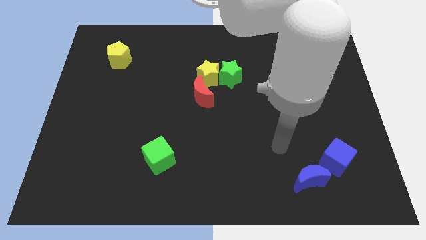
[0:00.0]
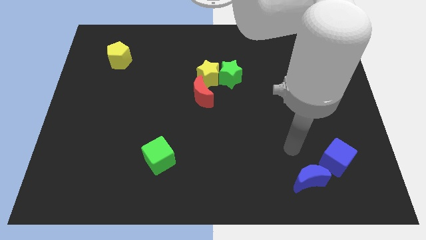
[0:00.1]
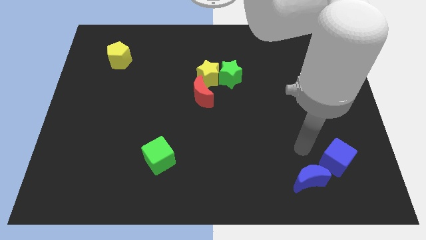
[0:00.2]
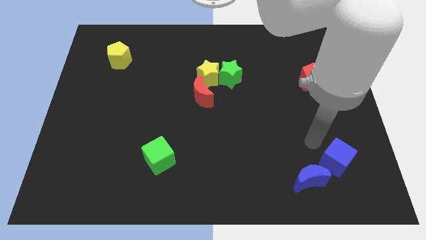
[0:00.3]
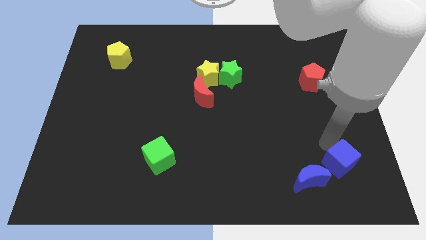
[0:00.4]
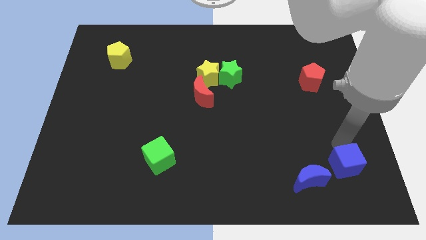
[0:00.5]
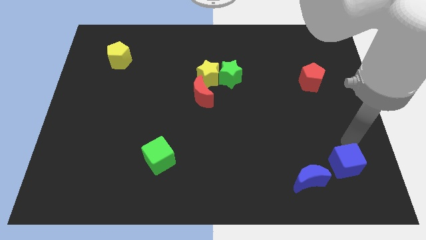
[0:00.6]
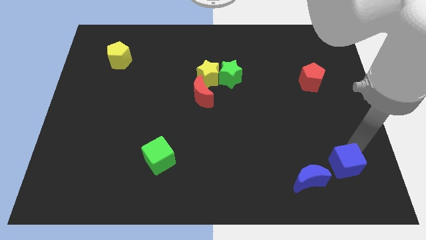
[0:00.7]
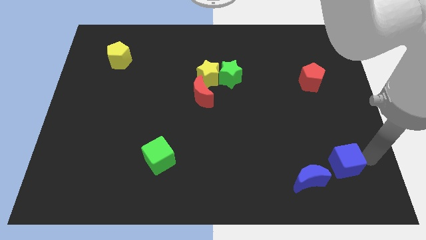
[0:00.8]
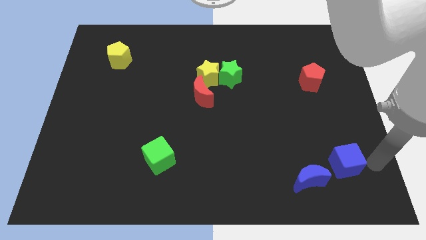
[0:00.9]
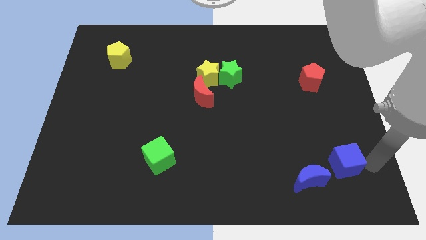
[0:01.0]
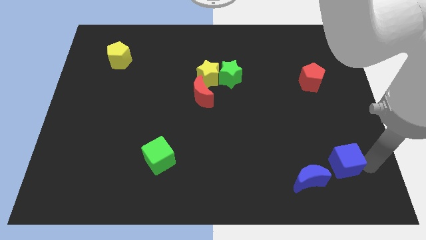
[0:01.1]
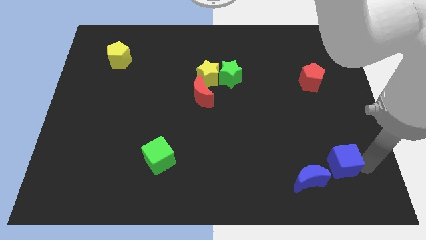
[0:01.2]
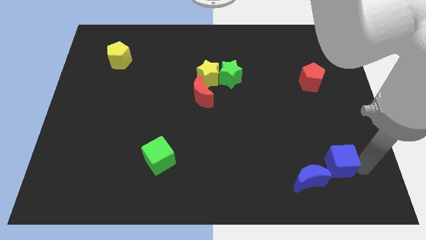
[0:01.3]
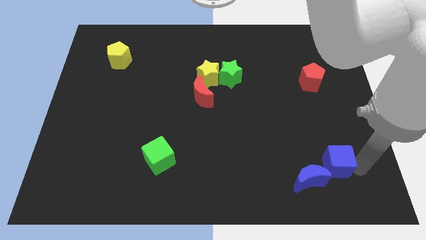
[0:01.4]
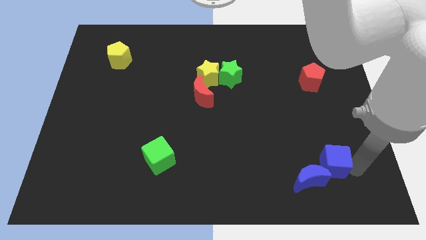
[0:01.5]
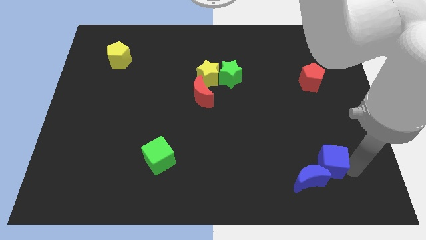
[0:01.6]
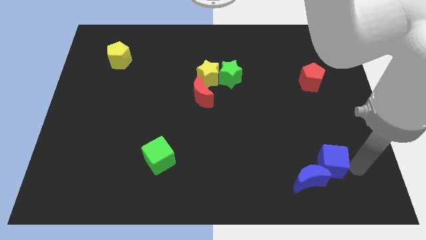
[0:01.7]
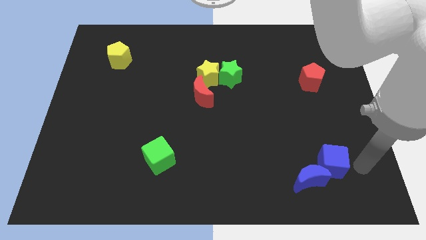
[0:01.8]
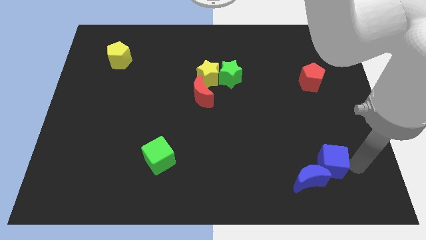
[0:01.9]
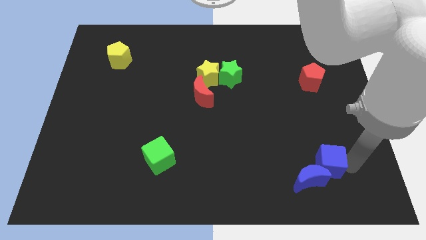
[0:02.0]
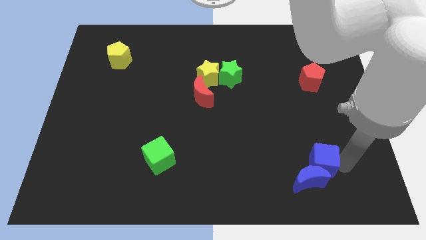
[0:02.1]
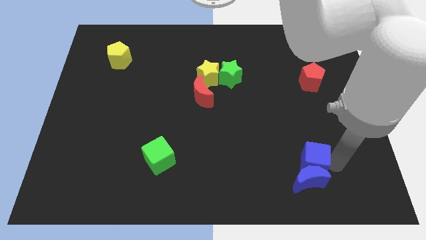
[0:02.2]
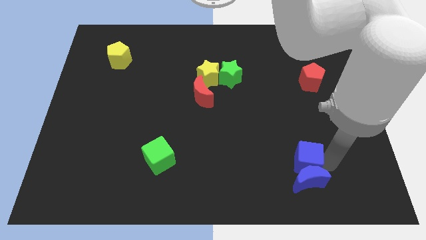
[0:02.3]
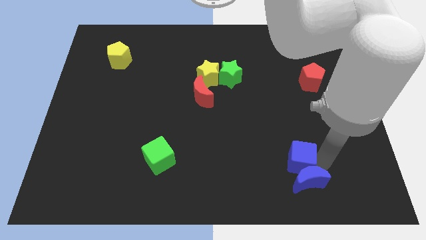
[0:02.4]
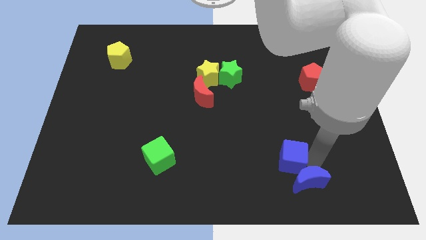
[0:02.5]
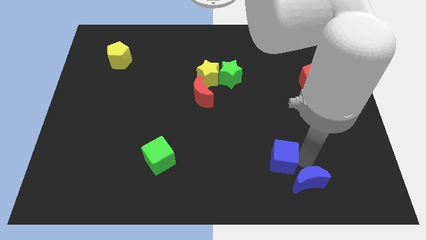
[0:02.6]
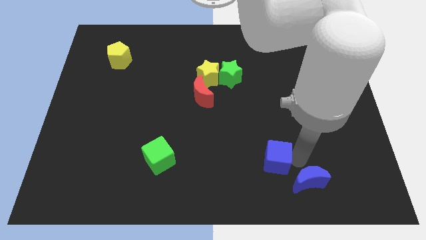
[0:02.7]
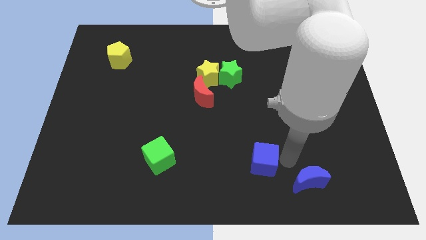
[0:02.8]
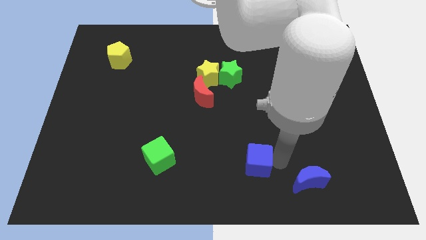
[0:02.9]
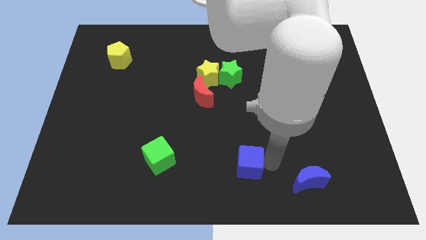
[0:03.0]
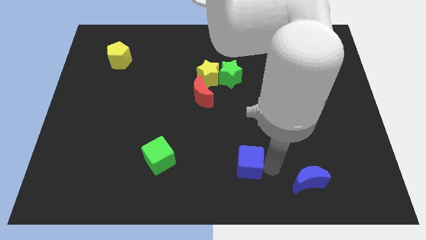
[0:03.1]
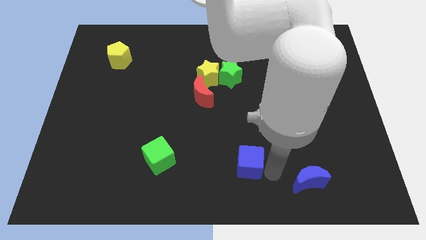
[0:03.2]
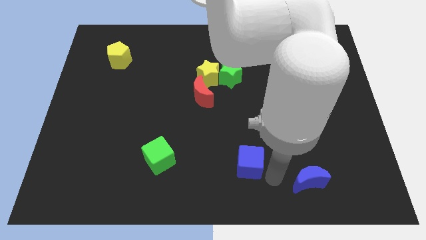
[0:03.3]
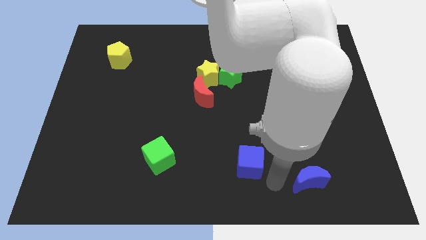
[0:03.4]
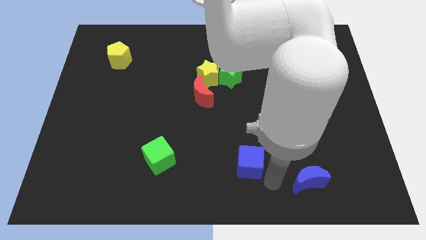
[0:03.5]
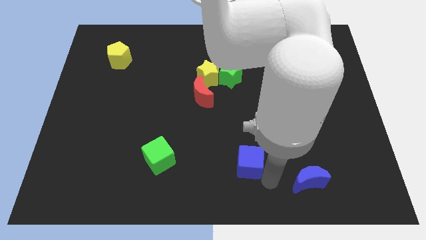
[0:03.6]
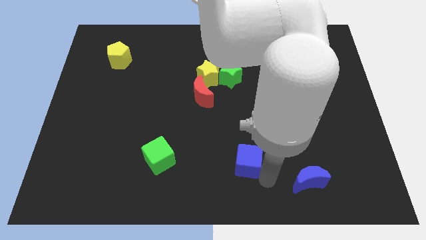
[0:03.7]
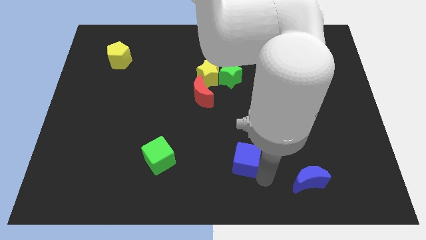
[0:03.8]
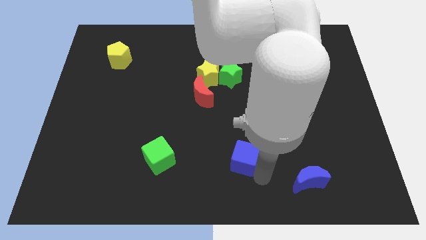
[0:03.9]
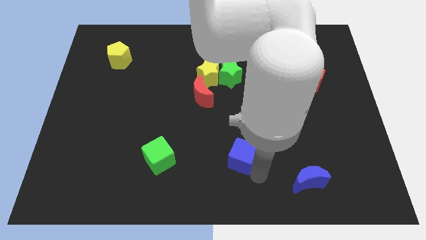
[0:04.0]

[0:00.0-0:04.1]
move the blue cube to the left

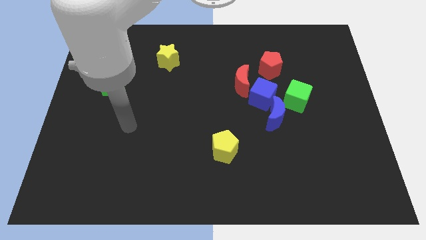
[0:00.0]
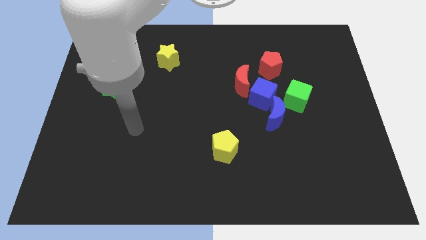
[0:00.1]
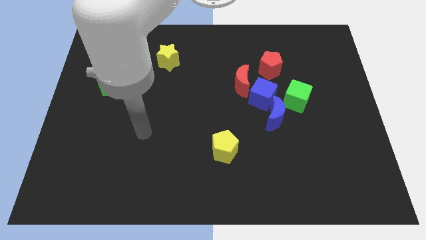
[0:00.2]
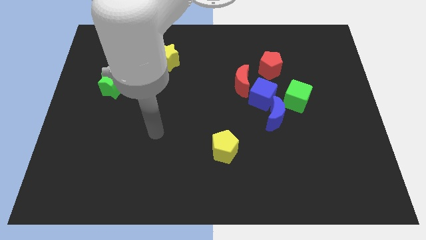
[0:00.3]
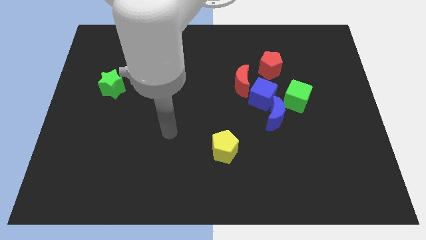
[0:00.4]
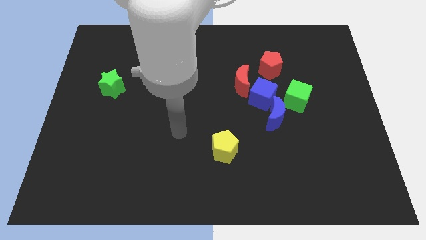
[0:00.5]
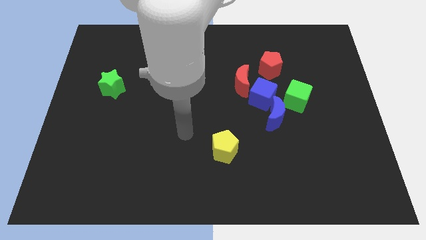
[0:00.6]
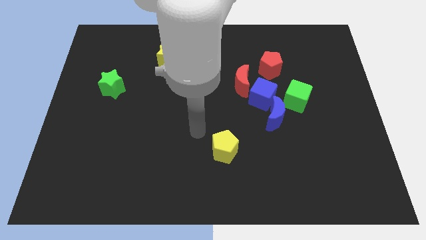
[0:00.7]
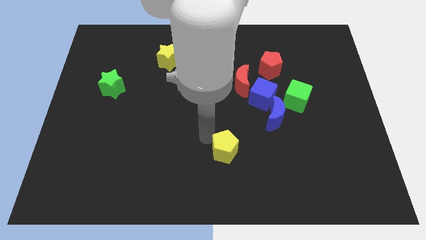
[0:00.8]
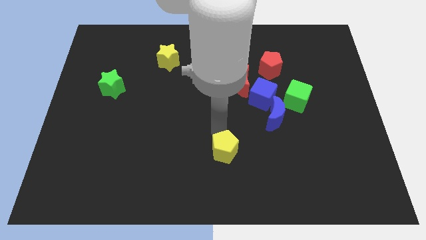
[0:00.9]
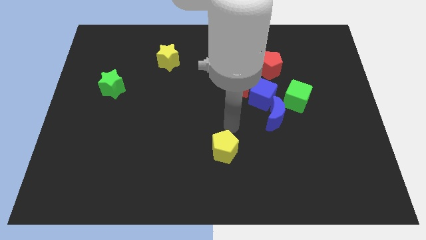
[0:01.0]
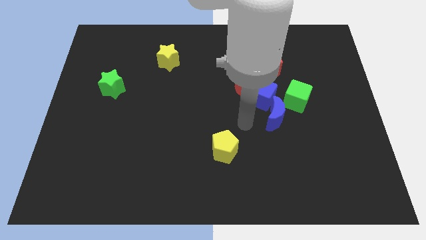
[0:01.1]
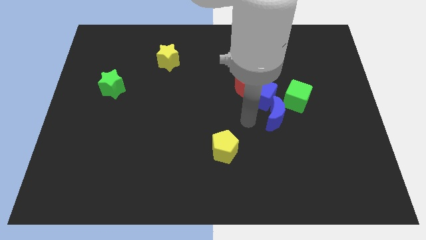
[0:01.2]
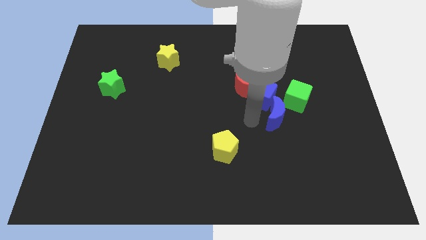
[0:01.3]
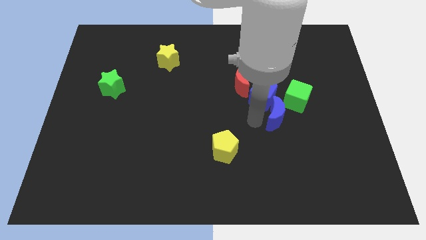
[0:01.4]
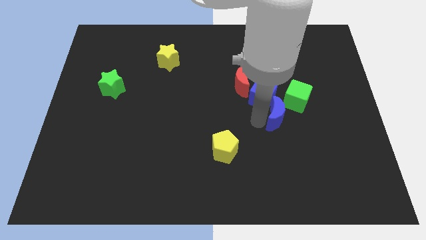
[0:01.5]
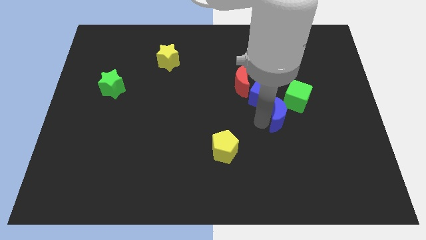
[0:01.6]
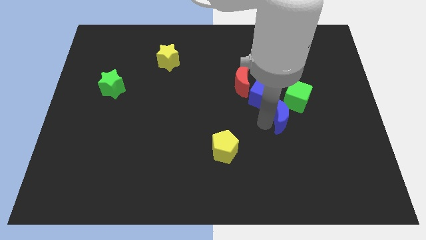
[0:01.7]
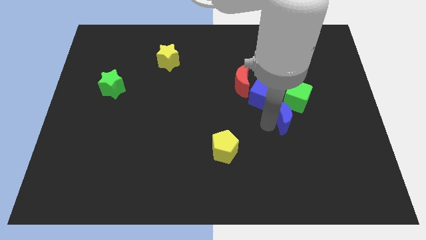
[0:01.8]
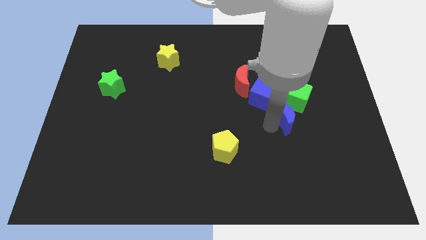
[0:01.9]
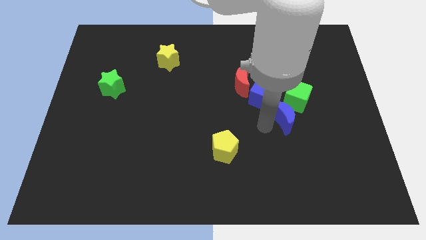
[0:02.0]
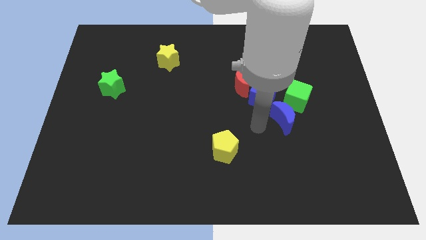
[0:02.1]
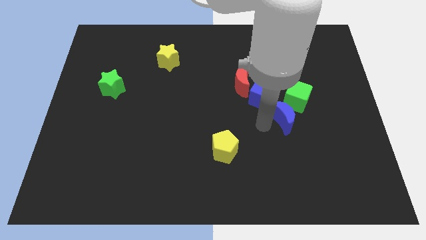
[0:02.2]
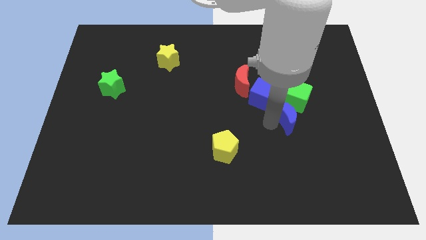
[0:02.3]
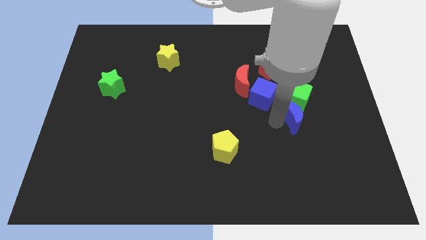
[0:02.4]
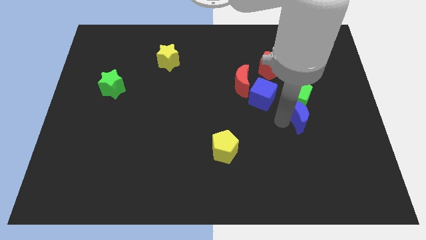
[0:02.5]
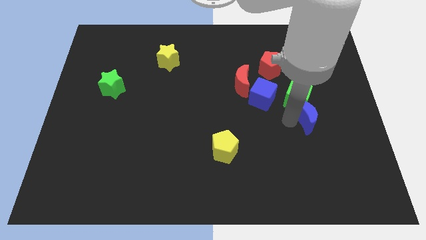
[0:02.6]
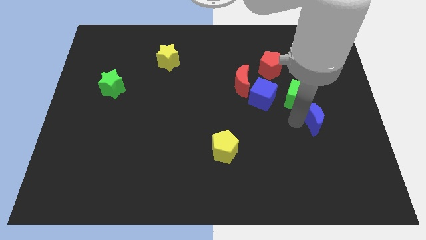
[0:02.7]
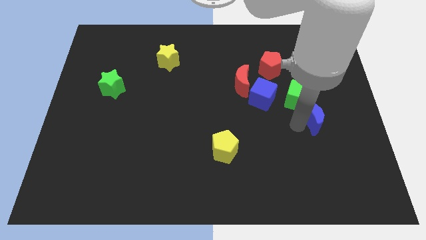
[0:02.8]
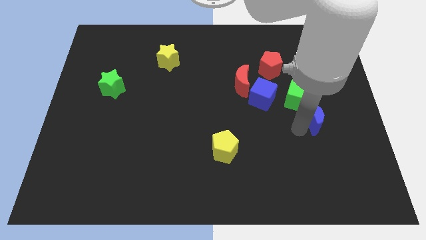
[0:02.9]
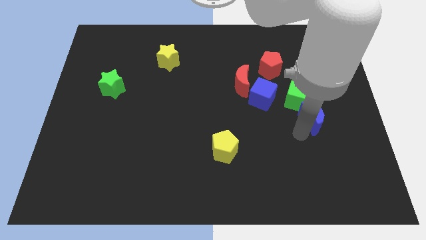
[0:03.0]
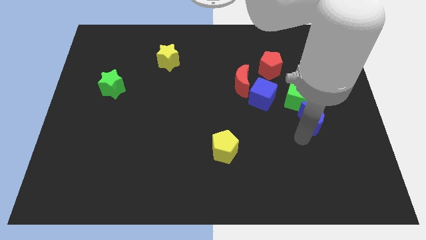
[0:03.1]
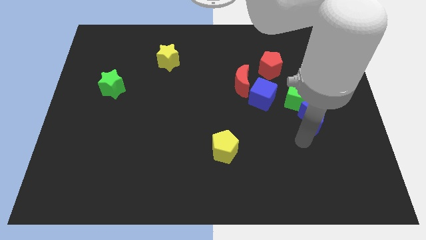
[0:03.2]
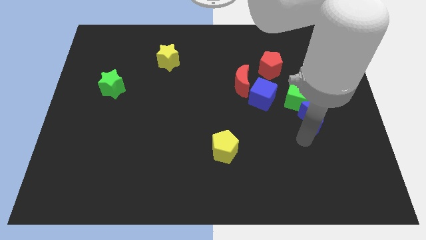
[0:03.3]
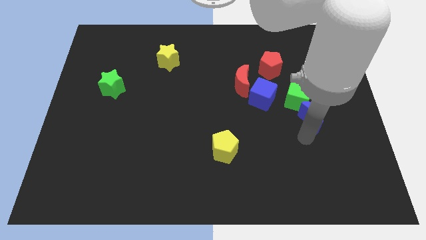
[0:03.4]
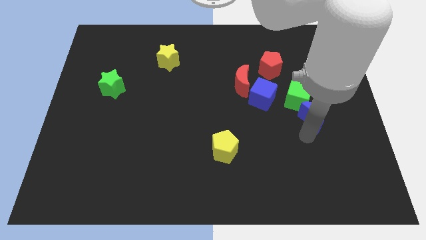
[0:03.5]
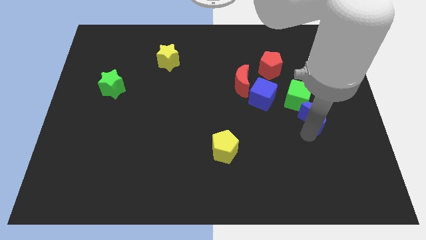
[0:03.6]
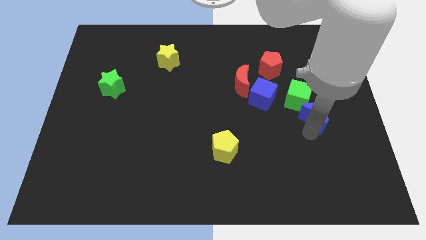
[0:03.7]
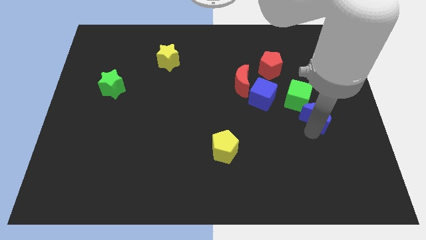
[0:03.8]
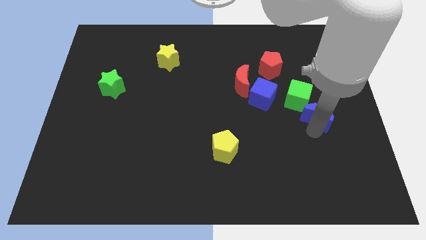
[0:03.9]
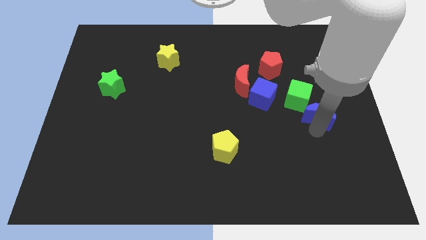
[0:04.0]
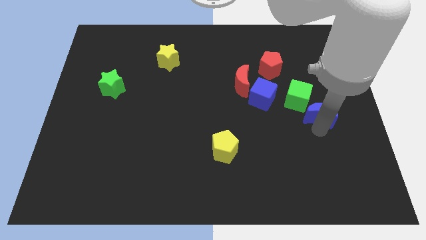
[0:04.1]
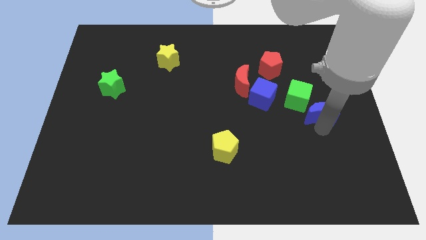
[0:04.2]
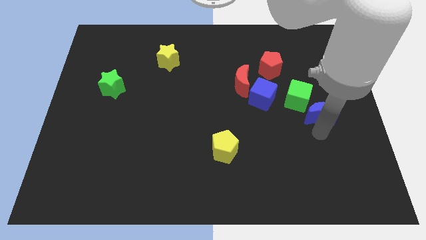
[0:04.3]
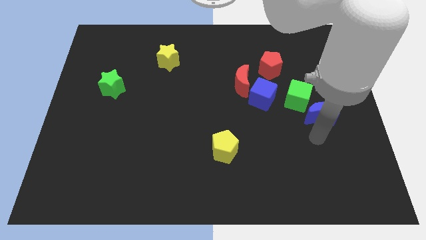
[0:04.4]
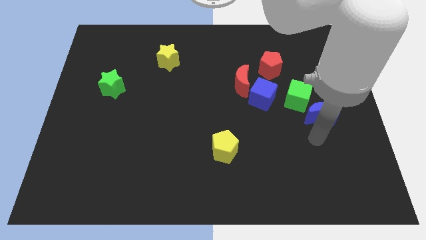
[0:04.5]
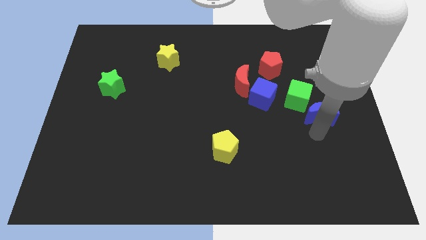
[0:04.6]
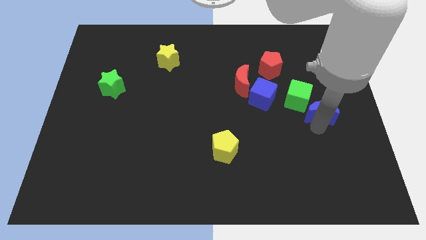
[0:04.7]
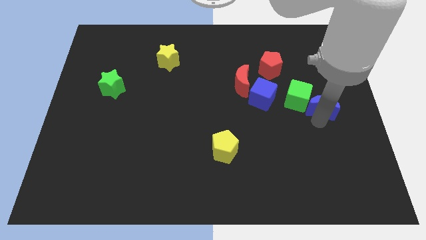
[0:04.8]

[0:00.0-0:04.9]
push the blue moon slightly diagonally upwards and right
